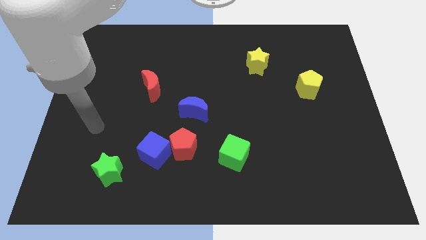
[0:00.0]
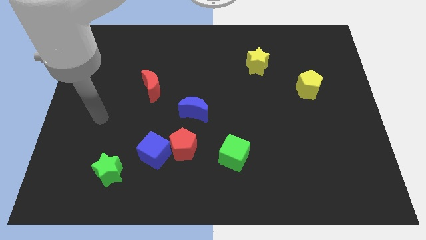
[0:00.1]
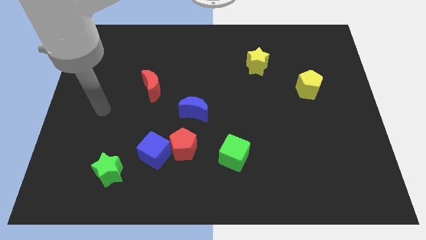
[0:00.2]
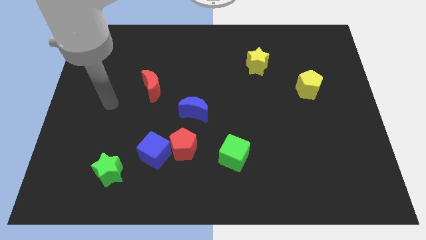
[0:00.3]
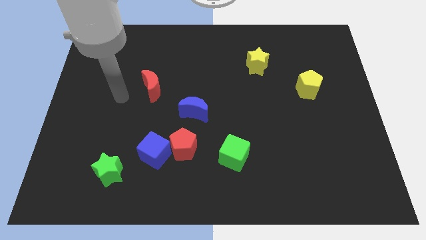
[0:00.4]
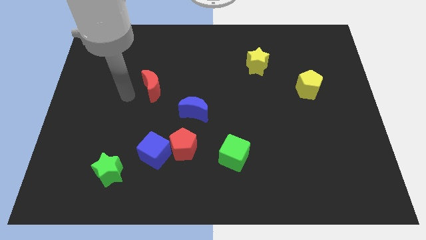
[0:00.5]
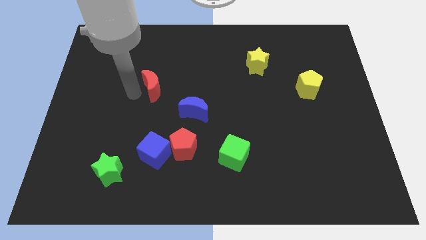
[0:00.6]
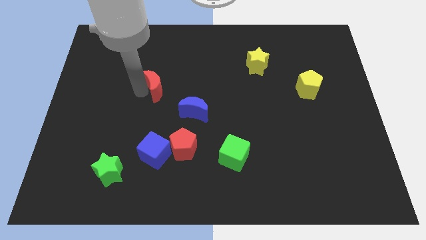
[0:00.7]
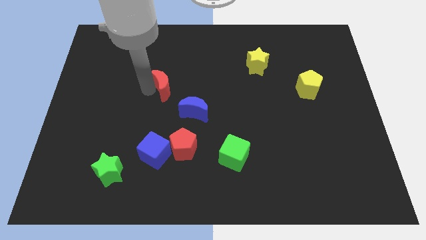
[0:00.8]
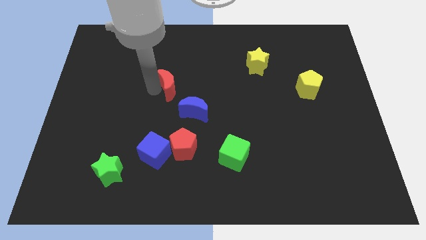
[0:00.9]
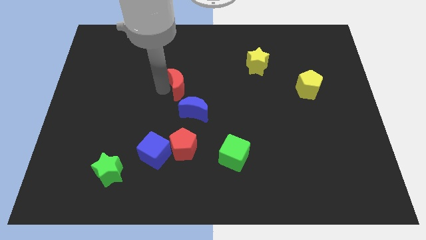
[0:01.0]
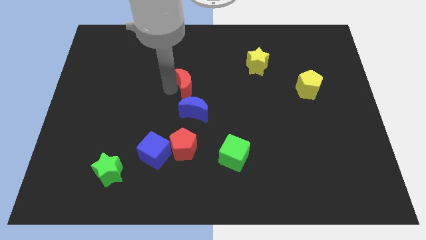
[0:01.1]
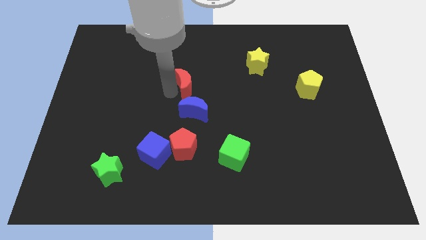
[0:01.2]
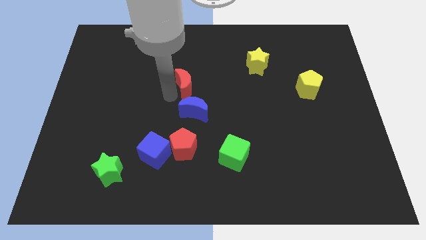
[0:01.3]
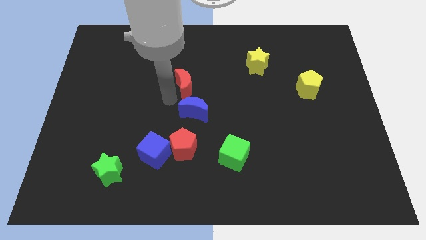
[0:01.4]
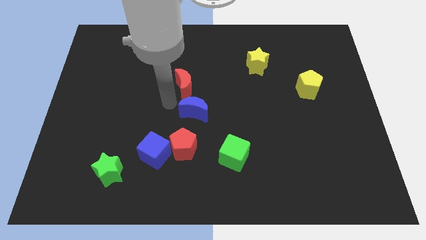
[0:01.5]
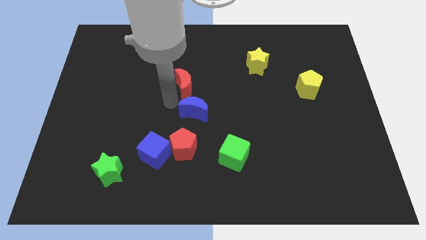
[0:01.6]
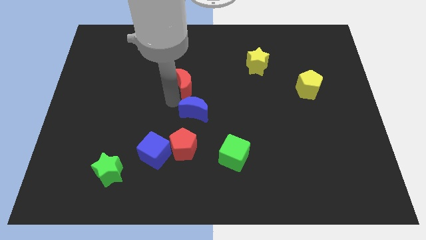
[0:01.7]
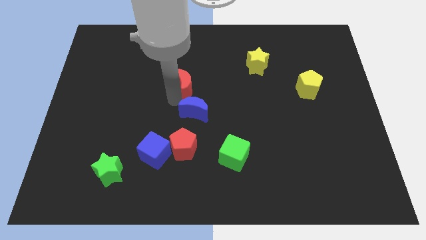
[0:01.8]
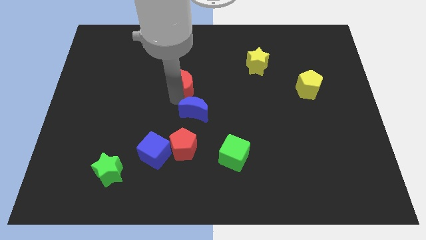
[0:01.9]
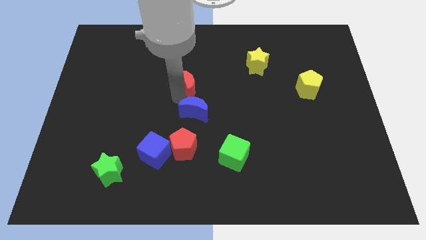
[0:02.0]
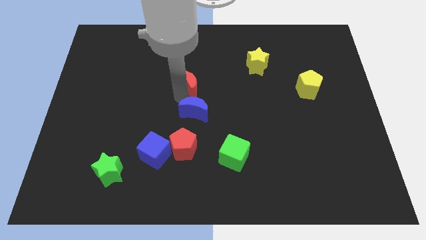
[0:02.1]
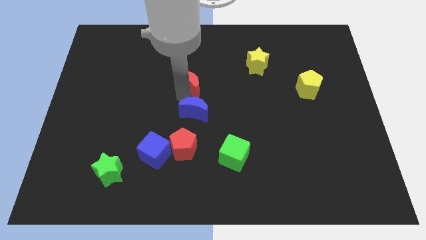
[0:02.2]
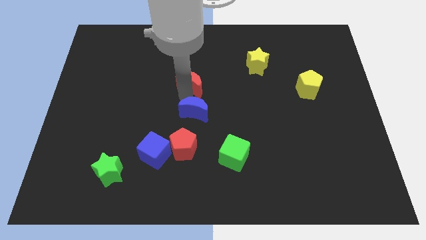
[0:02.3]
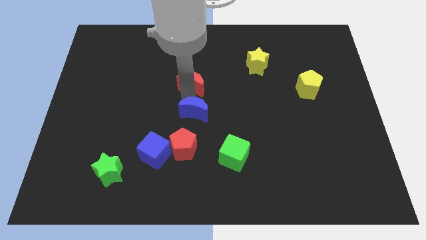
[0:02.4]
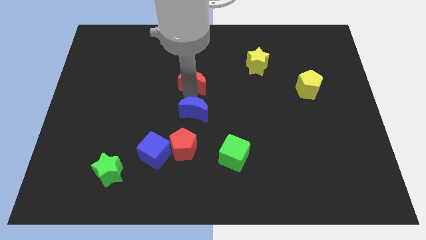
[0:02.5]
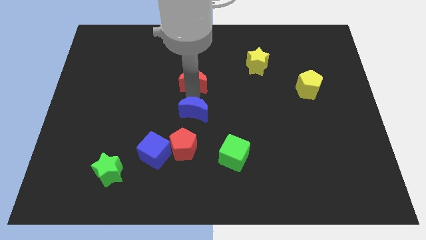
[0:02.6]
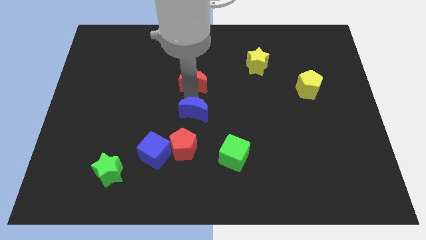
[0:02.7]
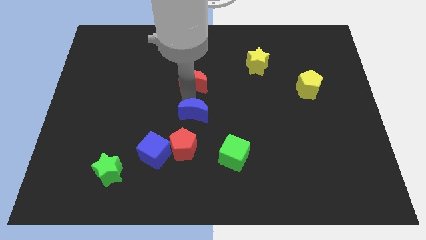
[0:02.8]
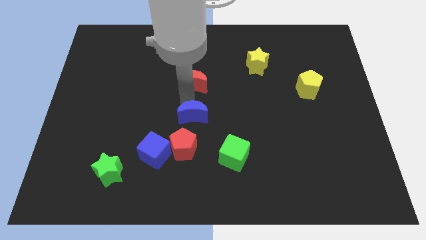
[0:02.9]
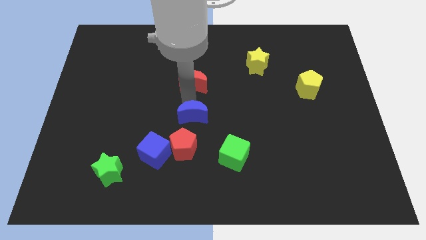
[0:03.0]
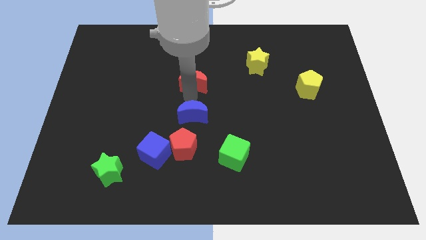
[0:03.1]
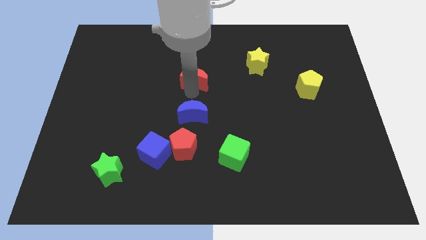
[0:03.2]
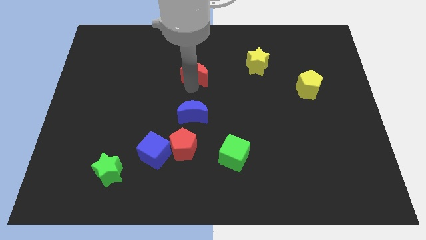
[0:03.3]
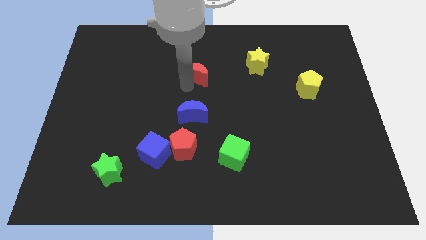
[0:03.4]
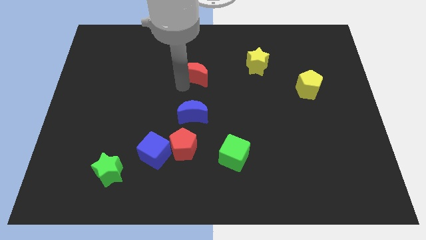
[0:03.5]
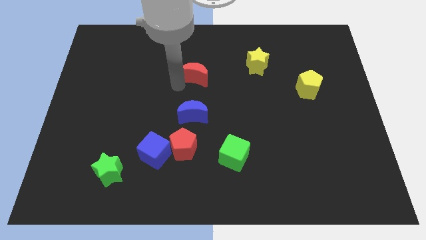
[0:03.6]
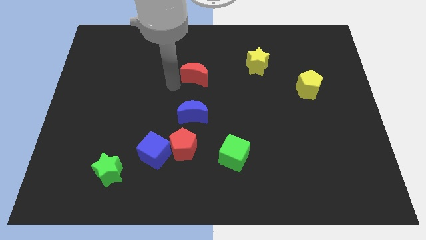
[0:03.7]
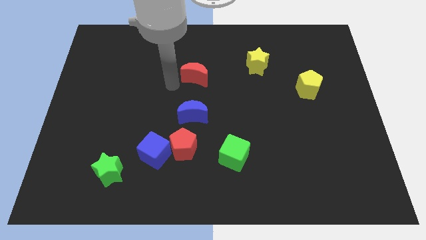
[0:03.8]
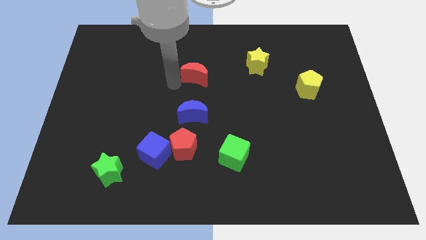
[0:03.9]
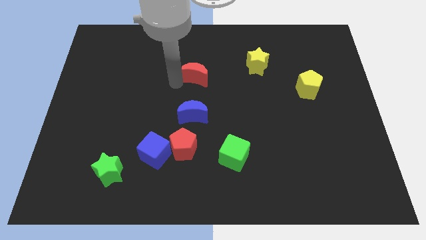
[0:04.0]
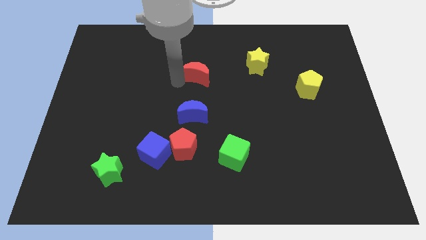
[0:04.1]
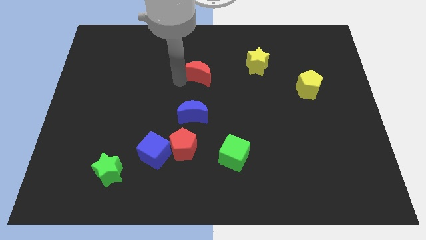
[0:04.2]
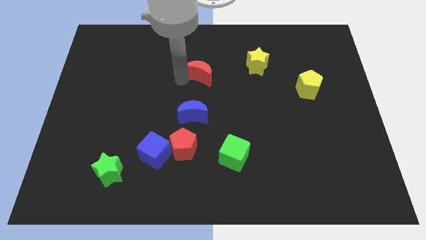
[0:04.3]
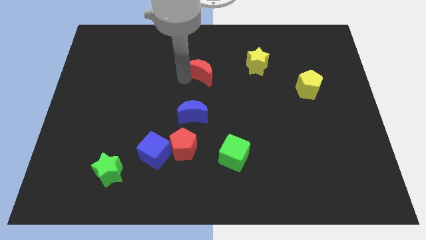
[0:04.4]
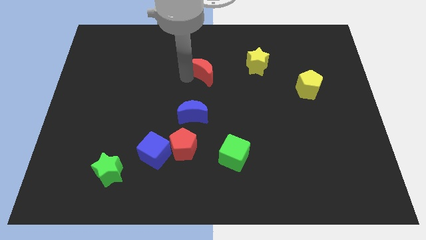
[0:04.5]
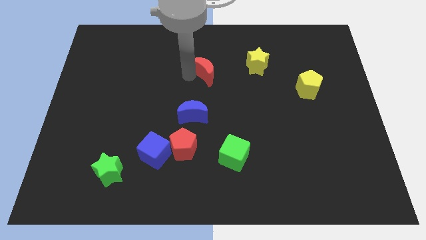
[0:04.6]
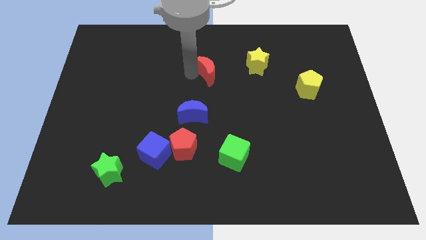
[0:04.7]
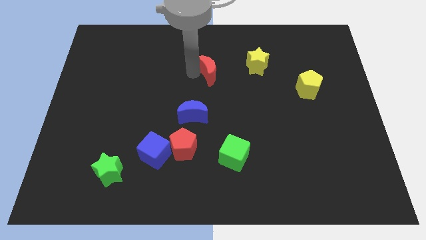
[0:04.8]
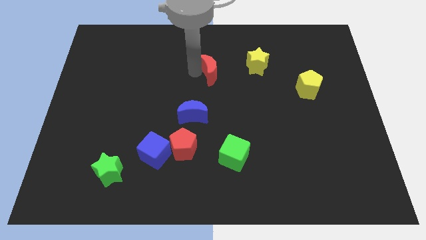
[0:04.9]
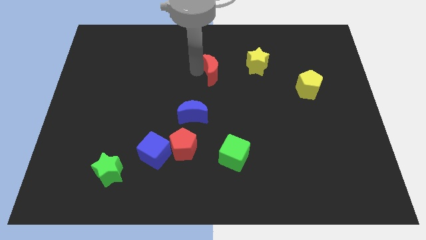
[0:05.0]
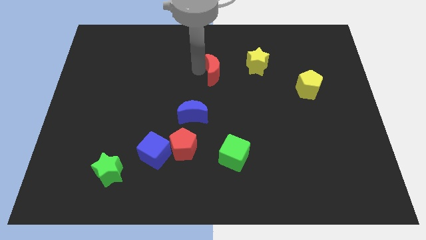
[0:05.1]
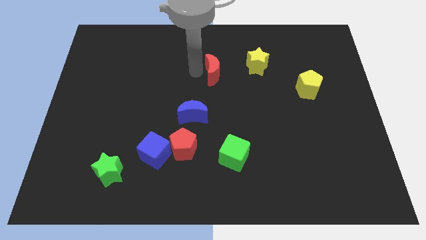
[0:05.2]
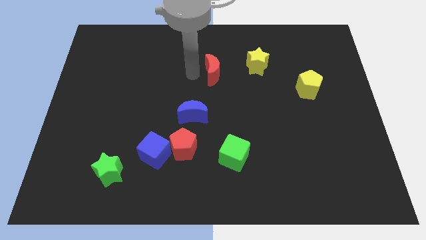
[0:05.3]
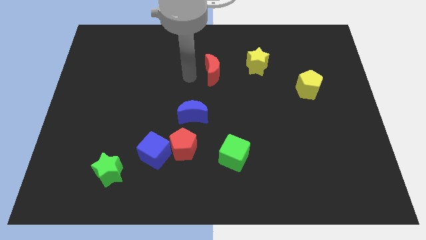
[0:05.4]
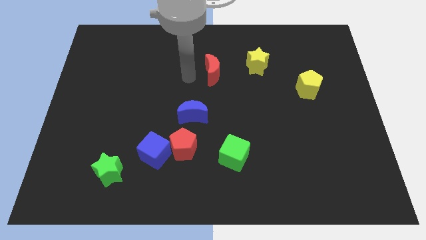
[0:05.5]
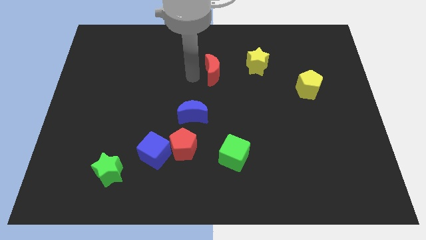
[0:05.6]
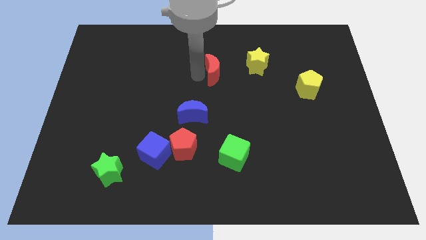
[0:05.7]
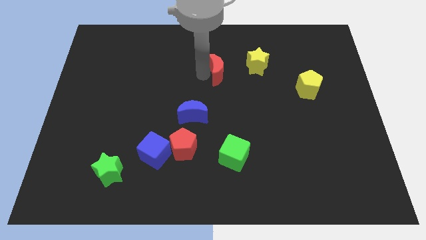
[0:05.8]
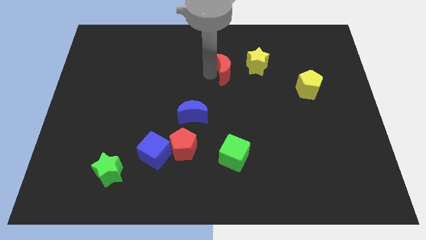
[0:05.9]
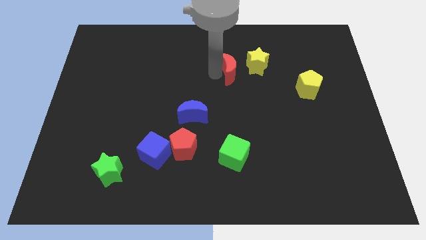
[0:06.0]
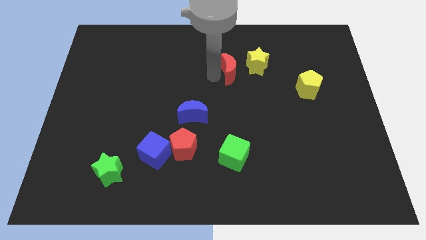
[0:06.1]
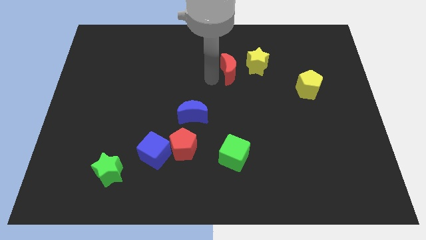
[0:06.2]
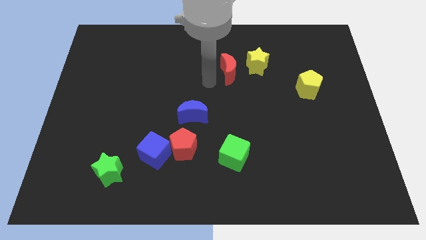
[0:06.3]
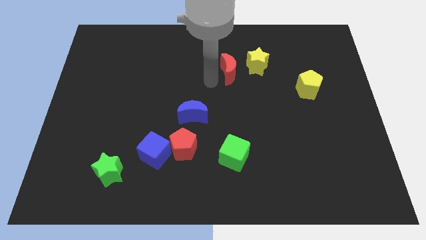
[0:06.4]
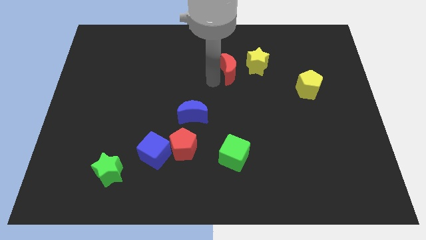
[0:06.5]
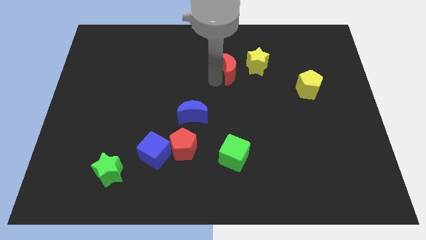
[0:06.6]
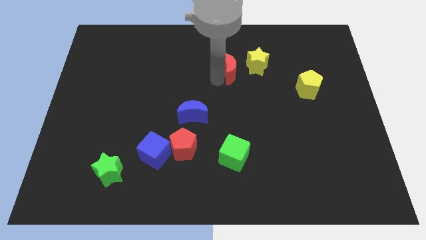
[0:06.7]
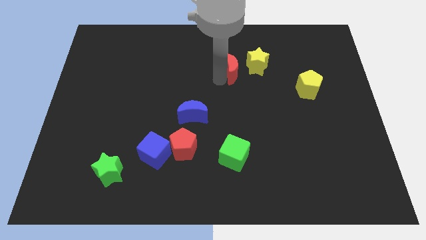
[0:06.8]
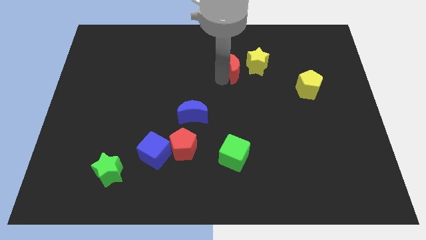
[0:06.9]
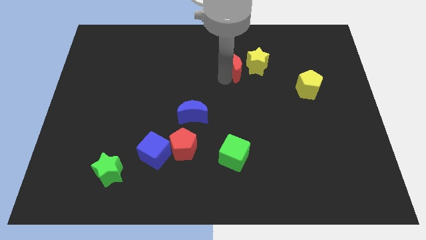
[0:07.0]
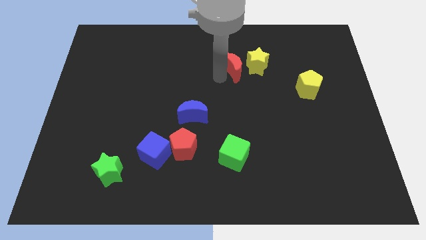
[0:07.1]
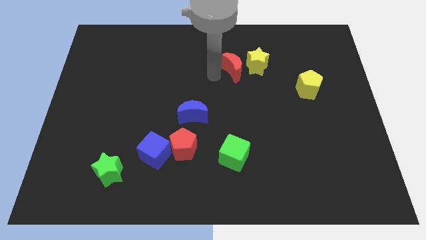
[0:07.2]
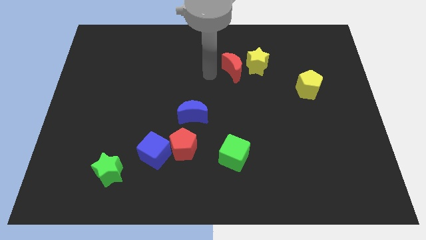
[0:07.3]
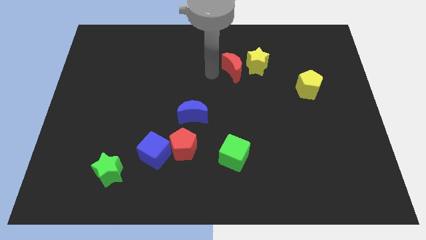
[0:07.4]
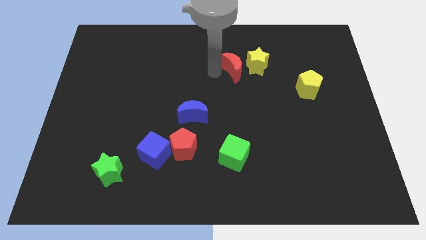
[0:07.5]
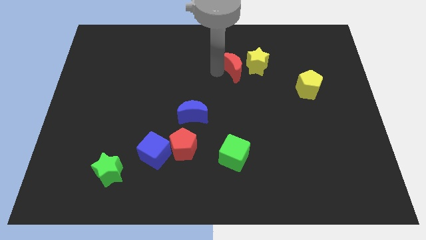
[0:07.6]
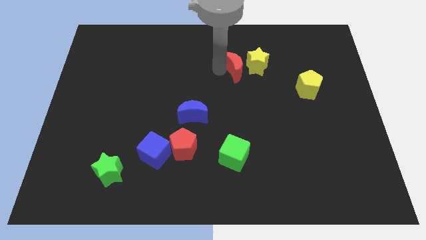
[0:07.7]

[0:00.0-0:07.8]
move the red moon towards the yellow star
